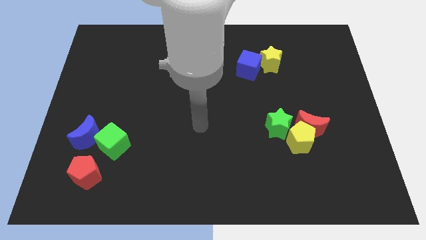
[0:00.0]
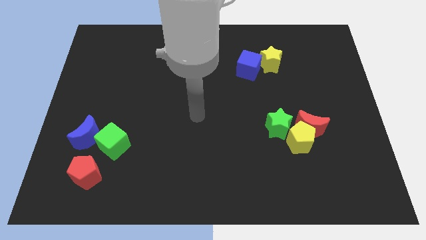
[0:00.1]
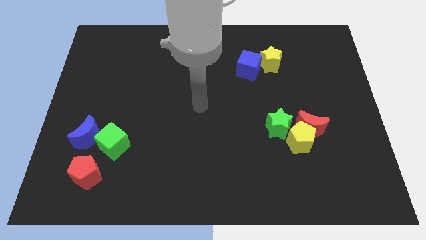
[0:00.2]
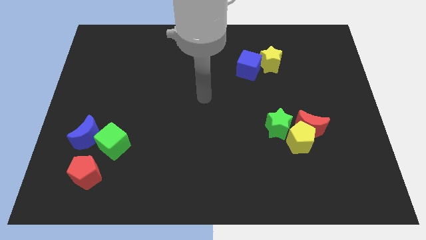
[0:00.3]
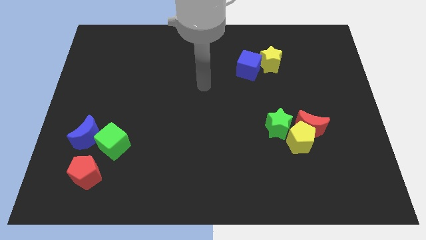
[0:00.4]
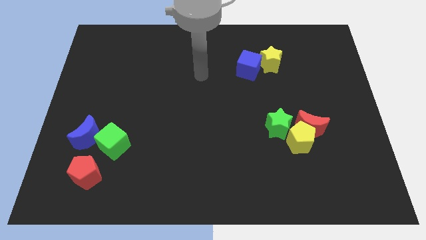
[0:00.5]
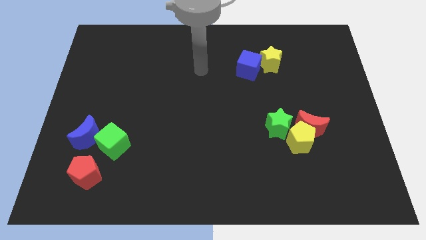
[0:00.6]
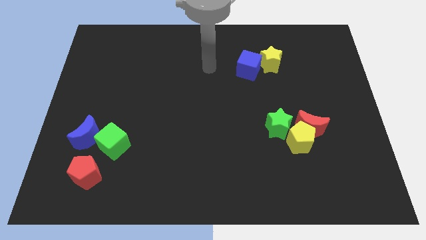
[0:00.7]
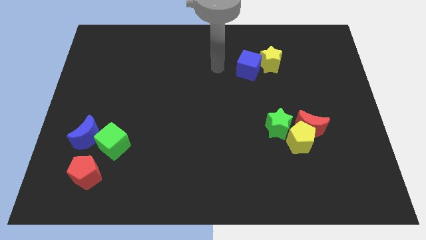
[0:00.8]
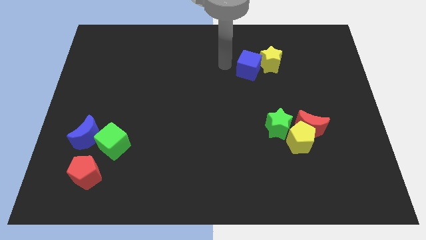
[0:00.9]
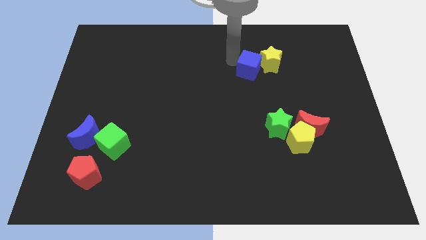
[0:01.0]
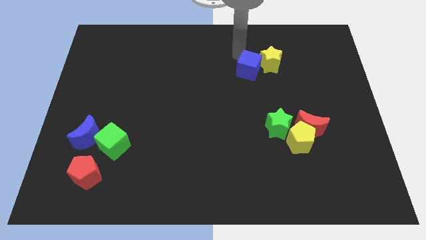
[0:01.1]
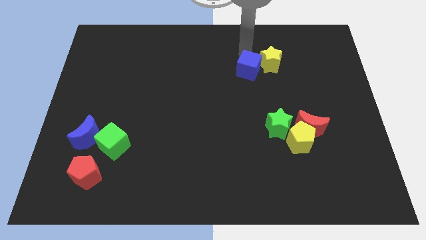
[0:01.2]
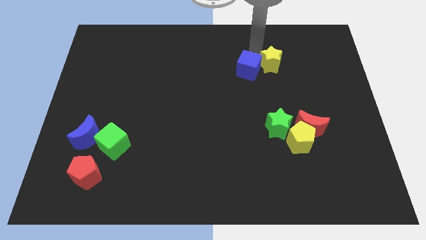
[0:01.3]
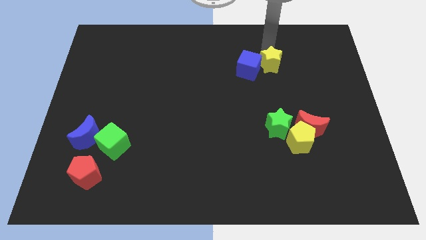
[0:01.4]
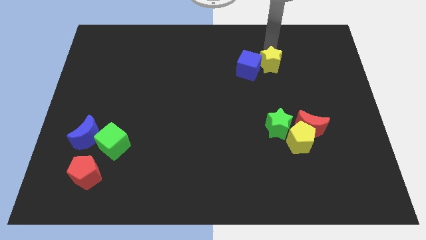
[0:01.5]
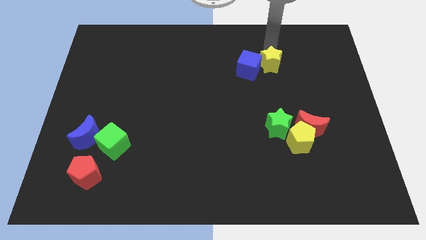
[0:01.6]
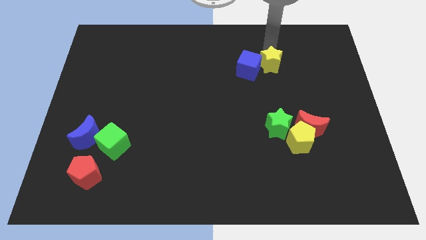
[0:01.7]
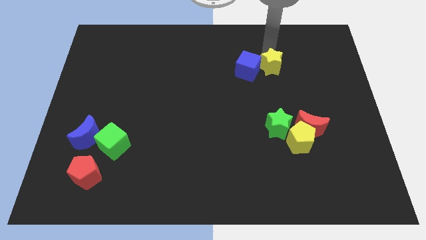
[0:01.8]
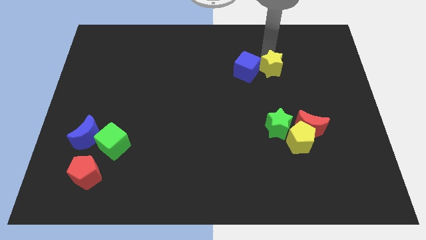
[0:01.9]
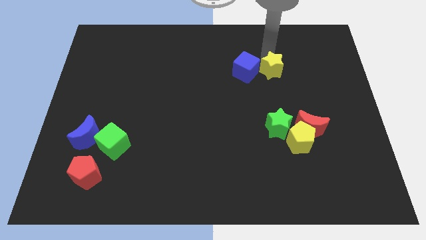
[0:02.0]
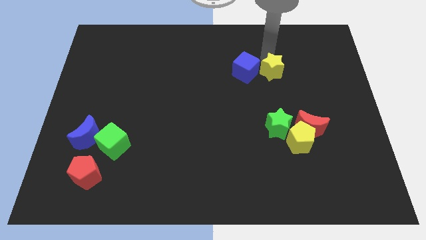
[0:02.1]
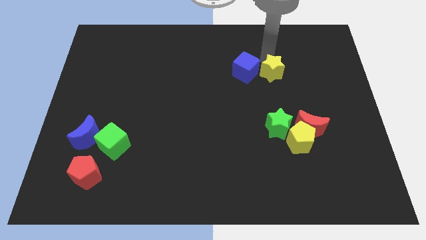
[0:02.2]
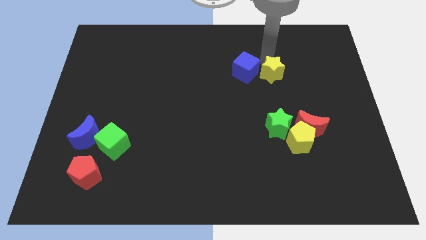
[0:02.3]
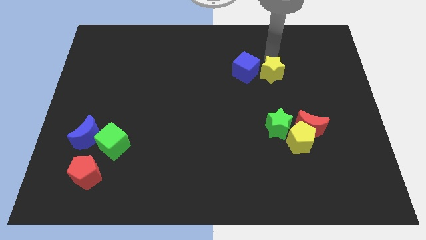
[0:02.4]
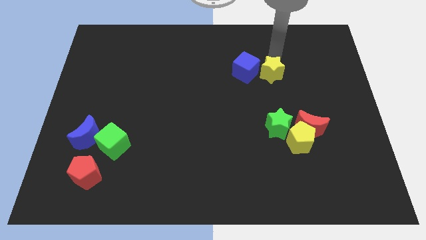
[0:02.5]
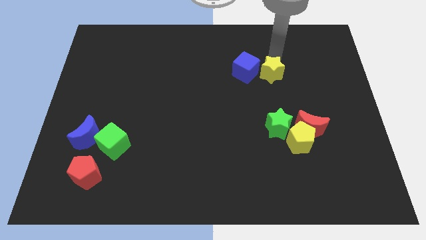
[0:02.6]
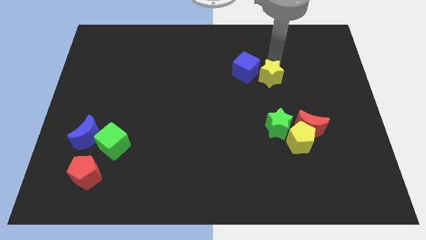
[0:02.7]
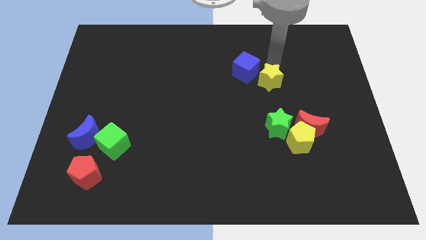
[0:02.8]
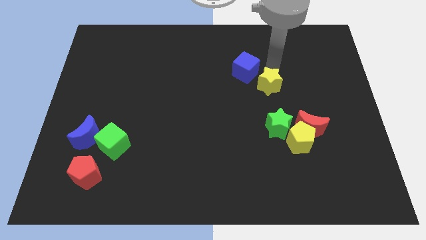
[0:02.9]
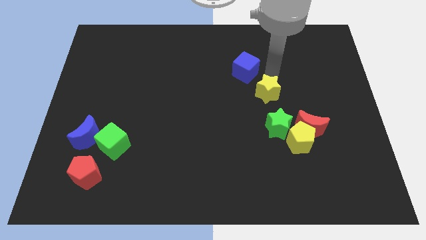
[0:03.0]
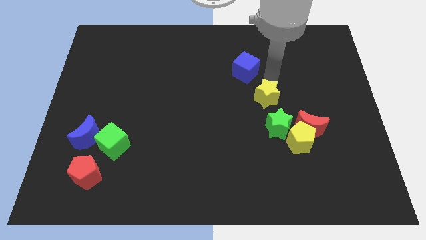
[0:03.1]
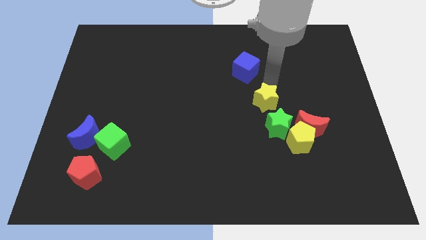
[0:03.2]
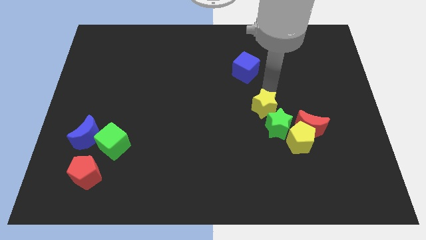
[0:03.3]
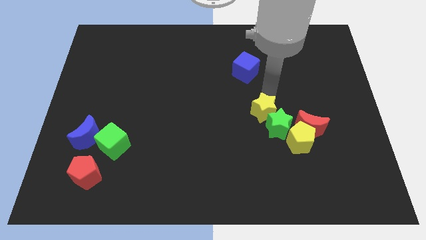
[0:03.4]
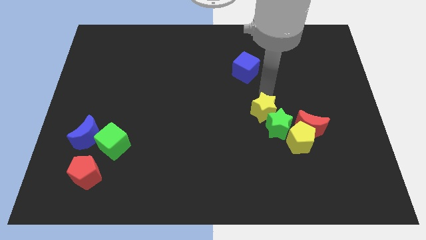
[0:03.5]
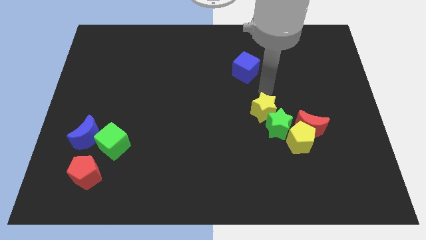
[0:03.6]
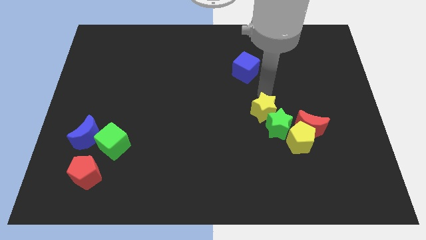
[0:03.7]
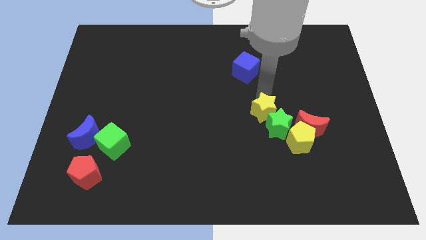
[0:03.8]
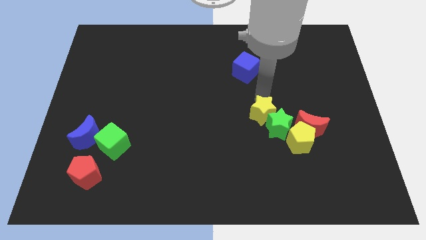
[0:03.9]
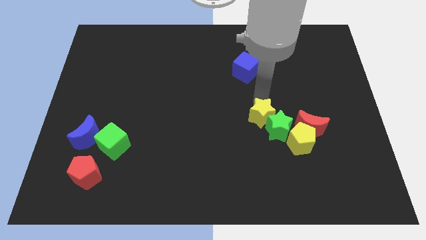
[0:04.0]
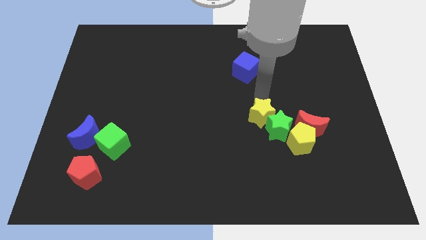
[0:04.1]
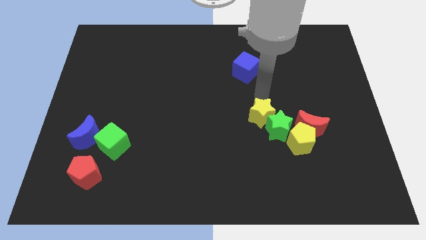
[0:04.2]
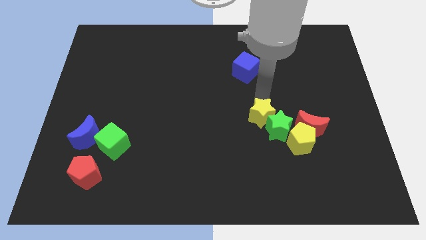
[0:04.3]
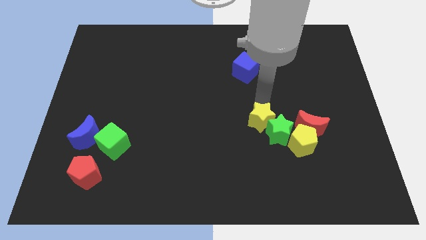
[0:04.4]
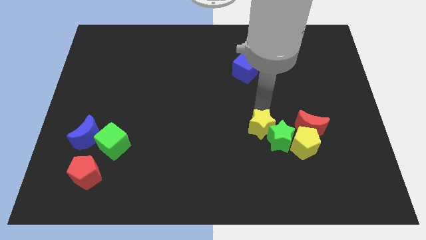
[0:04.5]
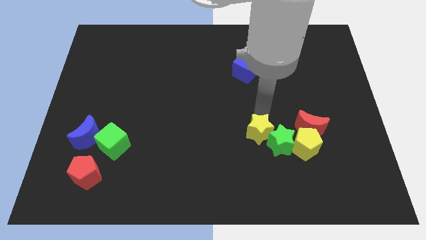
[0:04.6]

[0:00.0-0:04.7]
move the yellow star down

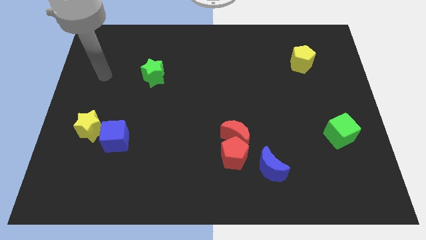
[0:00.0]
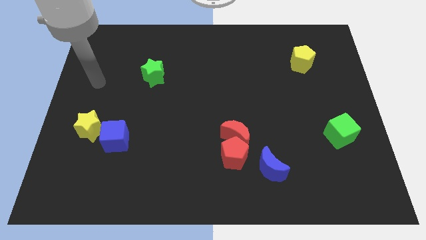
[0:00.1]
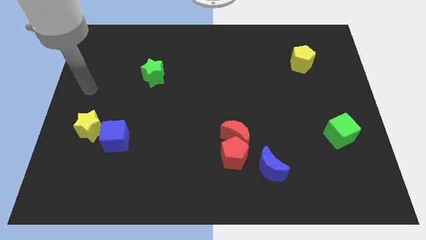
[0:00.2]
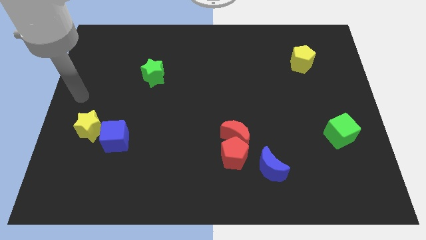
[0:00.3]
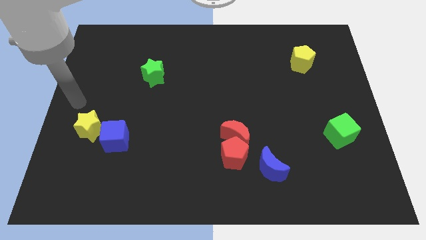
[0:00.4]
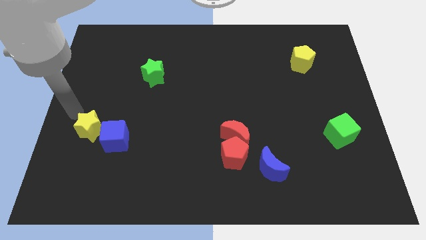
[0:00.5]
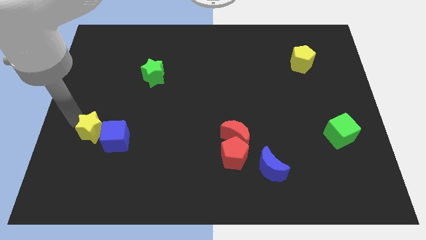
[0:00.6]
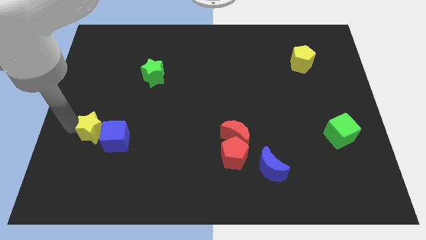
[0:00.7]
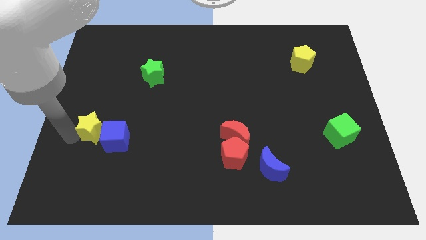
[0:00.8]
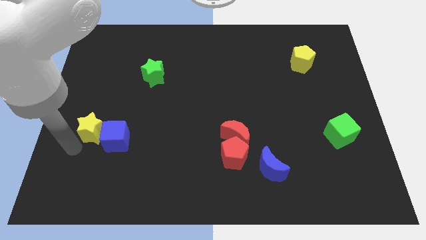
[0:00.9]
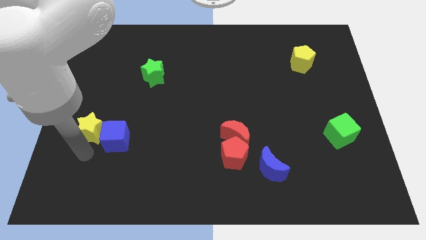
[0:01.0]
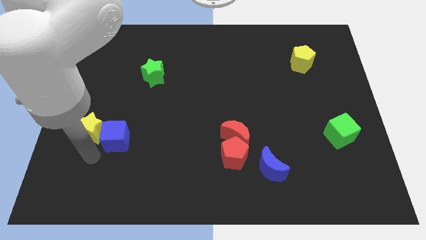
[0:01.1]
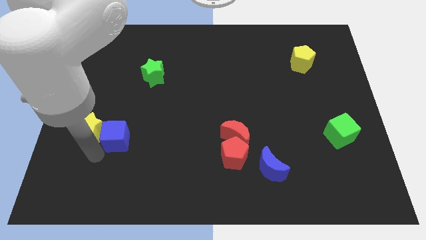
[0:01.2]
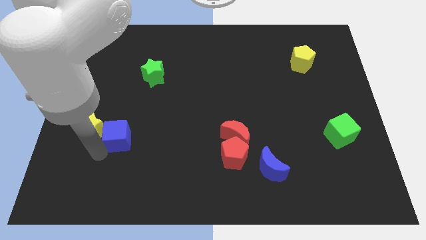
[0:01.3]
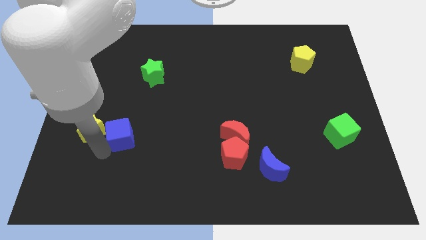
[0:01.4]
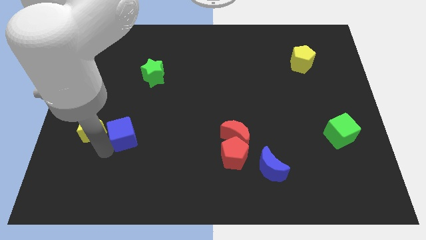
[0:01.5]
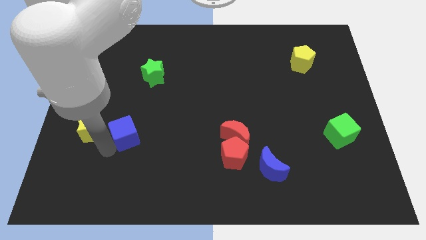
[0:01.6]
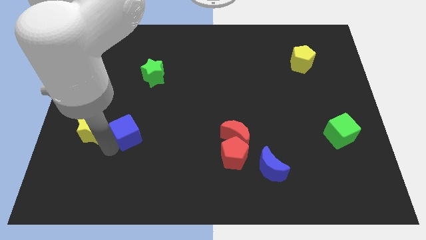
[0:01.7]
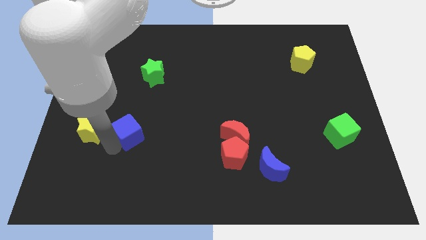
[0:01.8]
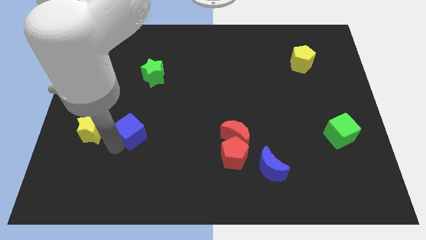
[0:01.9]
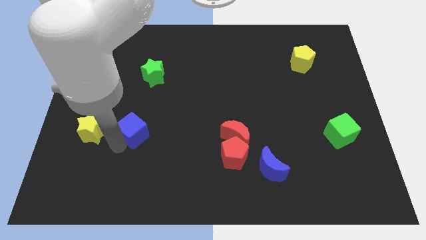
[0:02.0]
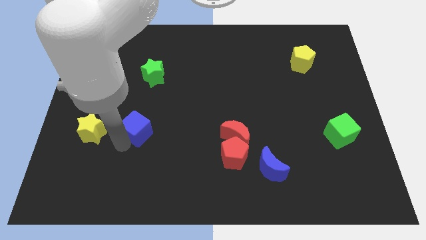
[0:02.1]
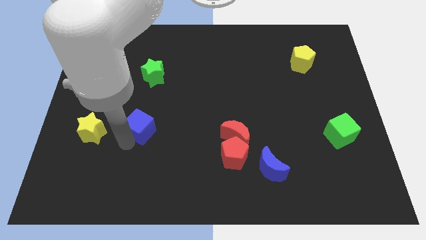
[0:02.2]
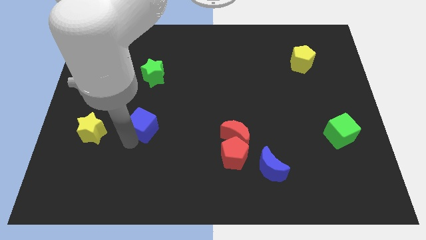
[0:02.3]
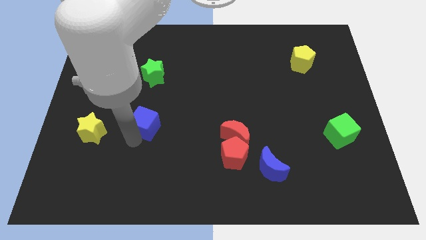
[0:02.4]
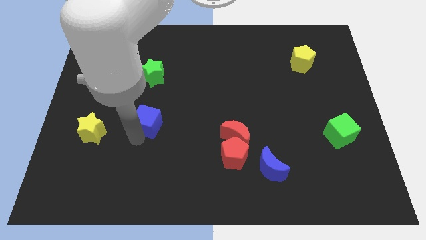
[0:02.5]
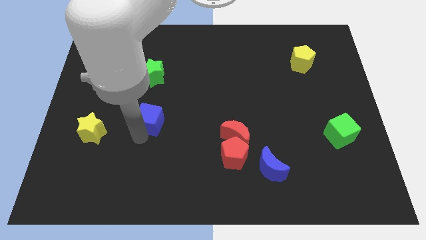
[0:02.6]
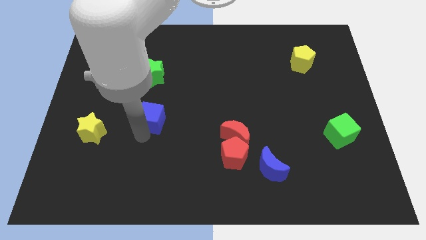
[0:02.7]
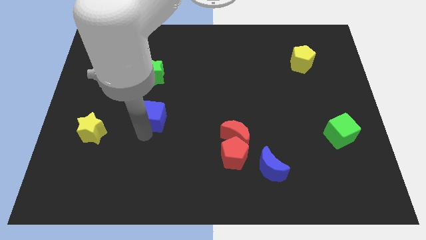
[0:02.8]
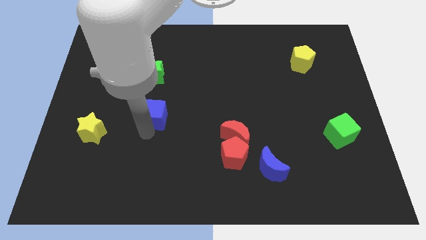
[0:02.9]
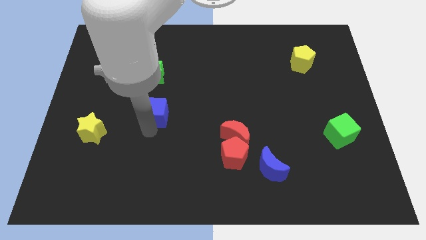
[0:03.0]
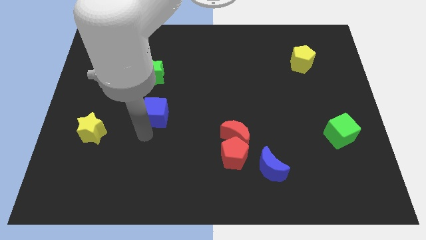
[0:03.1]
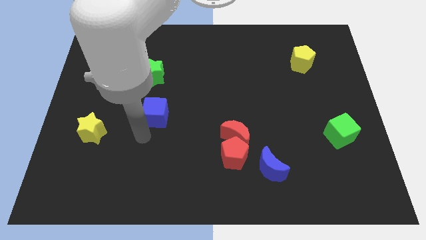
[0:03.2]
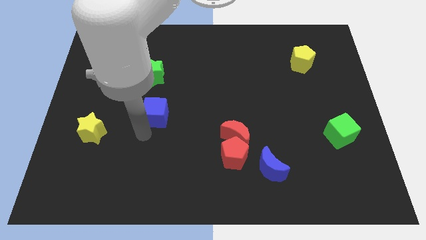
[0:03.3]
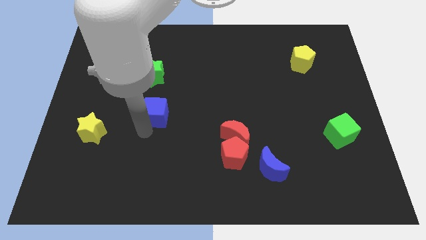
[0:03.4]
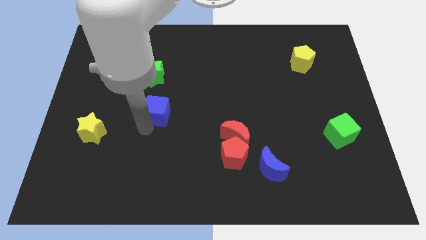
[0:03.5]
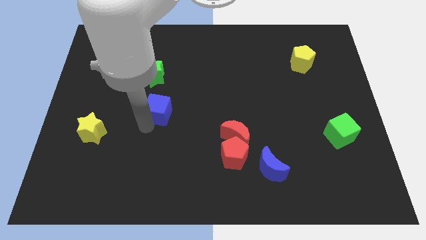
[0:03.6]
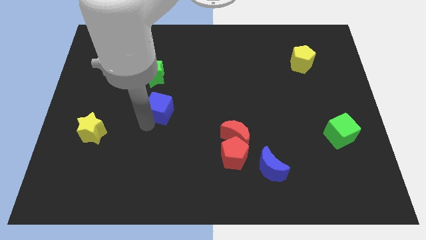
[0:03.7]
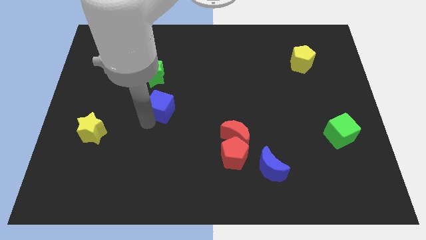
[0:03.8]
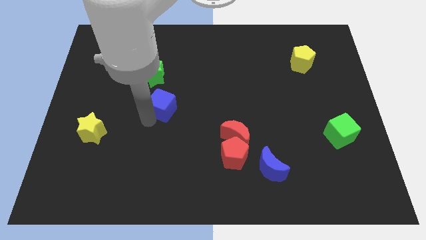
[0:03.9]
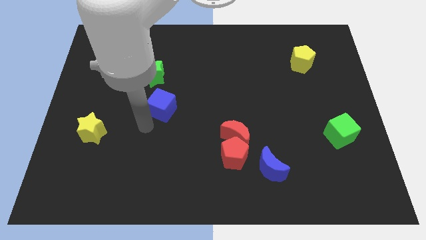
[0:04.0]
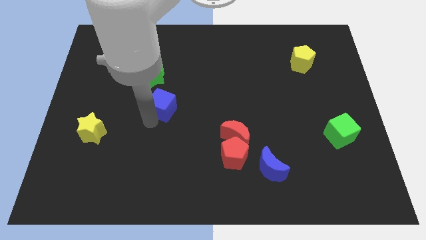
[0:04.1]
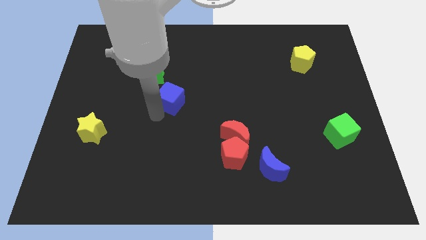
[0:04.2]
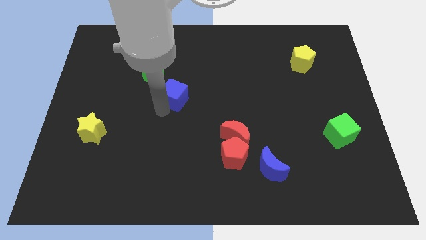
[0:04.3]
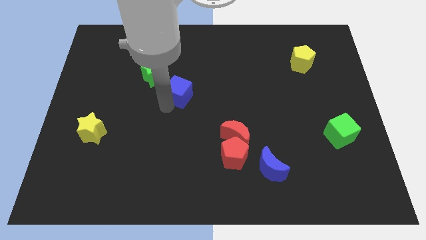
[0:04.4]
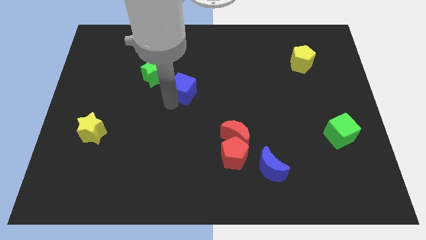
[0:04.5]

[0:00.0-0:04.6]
move the blue cube upwards and then to the right
